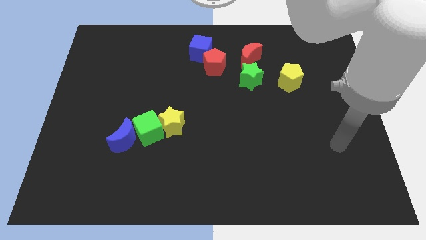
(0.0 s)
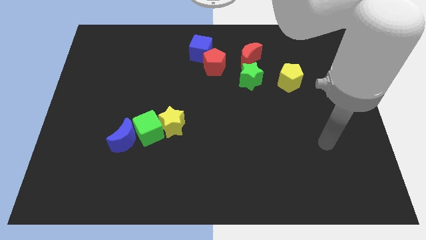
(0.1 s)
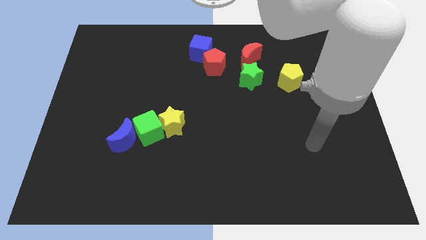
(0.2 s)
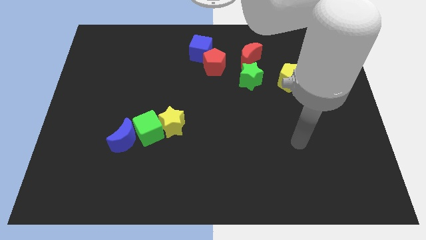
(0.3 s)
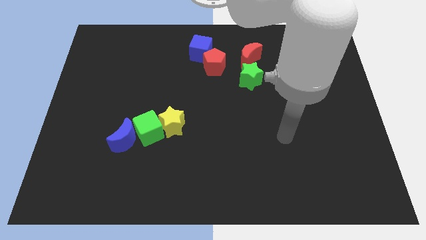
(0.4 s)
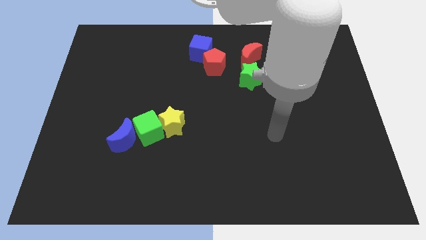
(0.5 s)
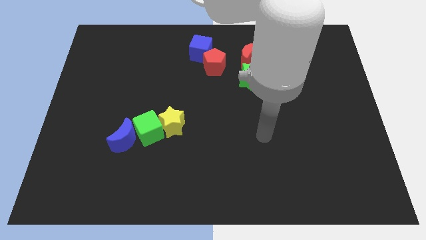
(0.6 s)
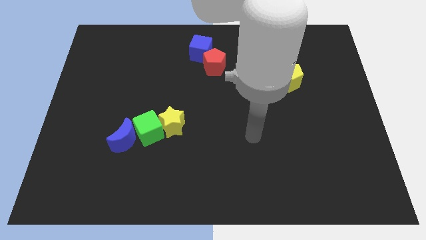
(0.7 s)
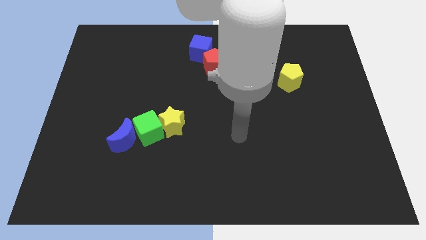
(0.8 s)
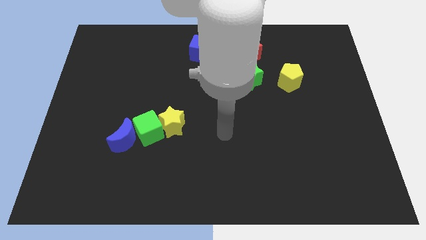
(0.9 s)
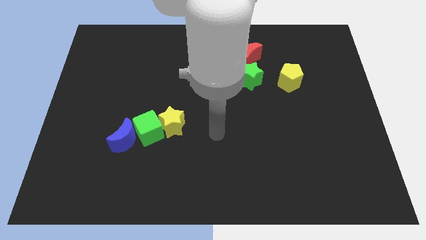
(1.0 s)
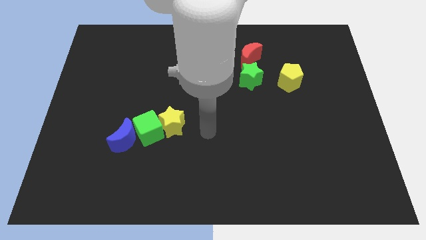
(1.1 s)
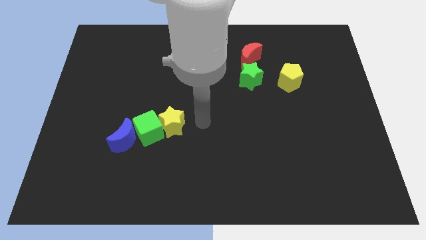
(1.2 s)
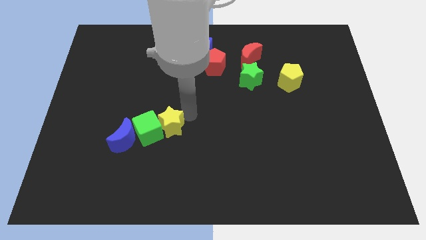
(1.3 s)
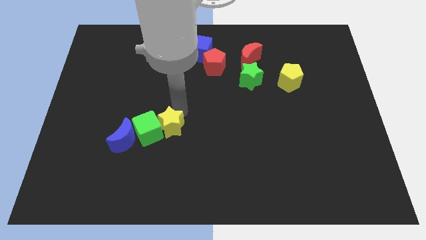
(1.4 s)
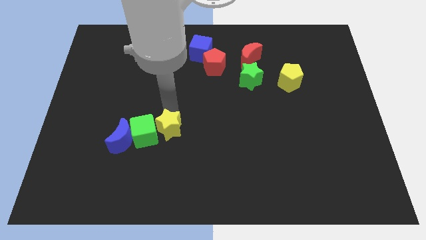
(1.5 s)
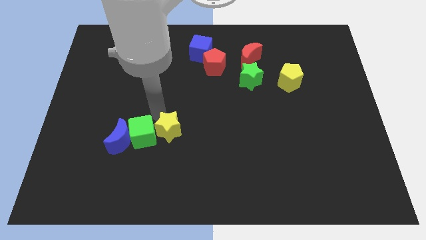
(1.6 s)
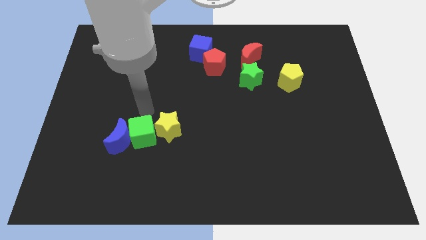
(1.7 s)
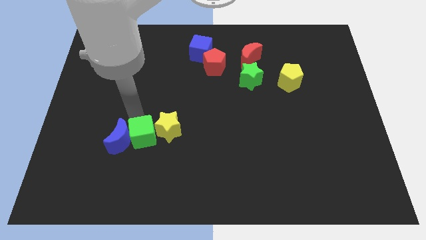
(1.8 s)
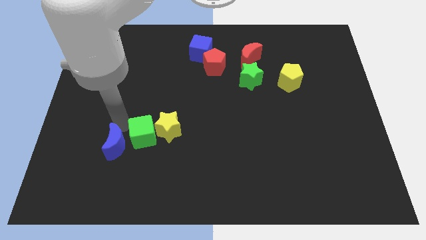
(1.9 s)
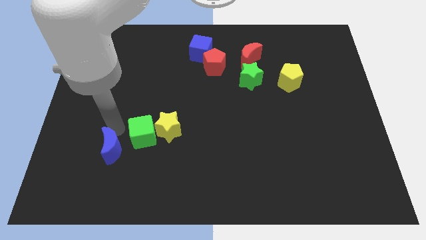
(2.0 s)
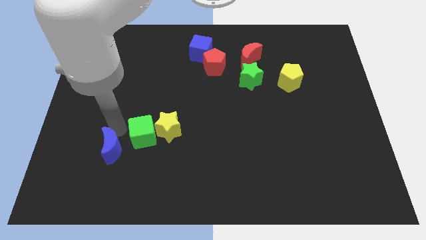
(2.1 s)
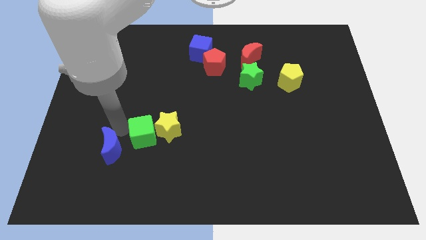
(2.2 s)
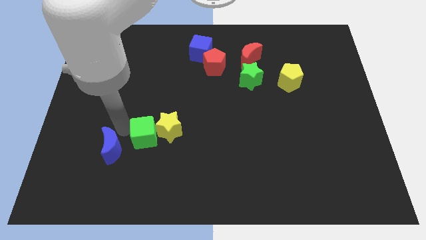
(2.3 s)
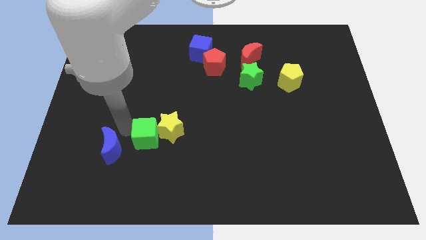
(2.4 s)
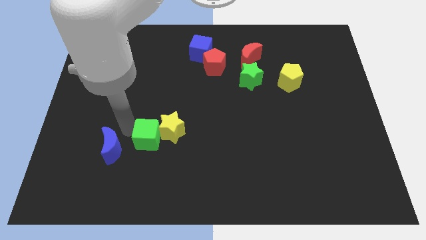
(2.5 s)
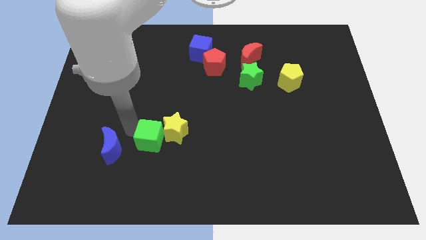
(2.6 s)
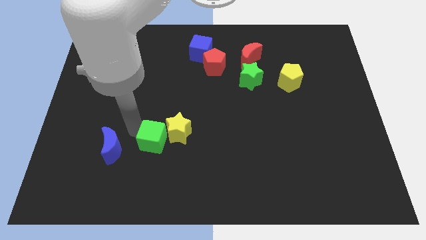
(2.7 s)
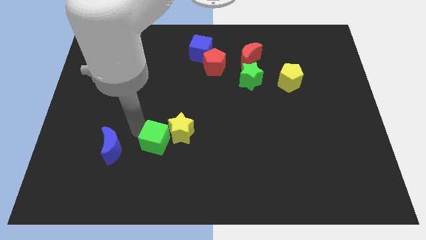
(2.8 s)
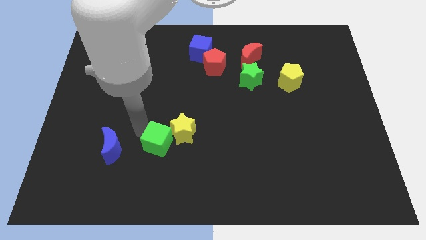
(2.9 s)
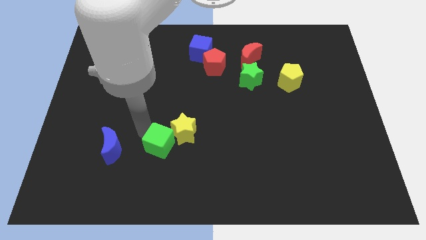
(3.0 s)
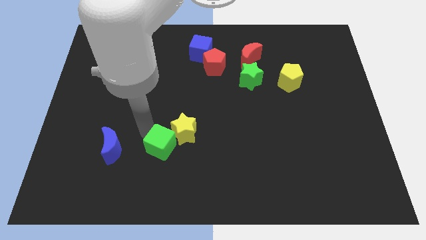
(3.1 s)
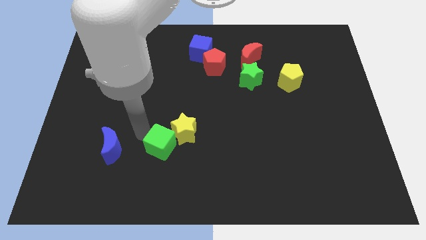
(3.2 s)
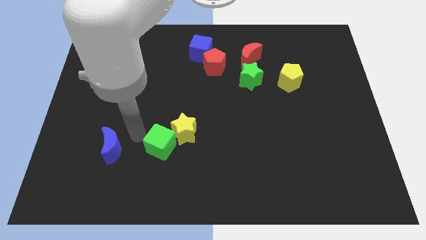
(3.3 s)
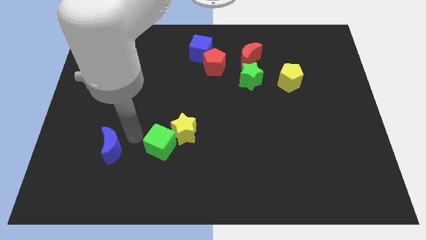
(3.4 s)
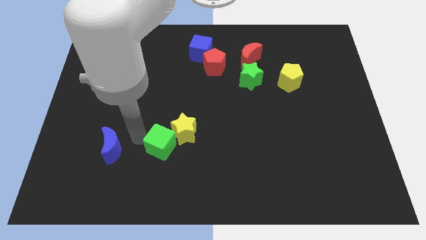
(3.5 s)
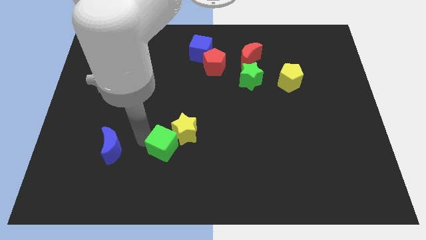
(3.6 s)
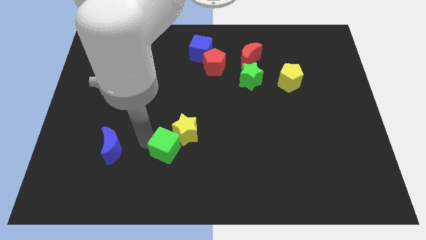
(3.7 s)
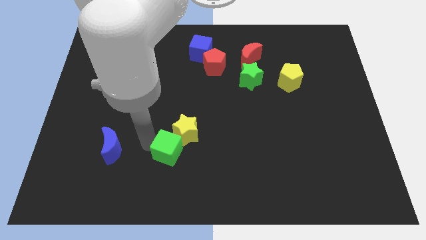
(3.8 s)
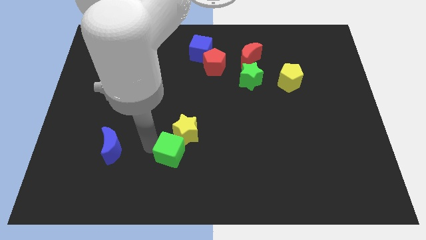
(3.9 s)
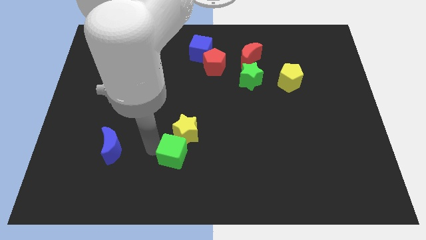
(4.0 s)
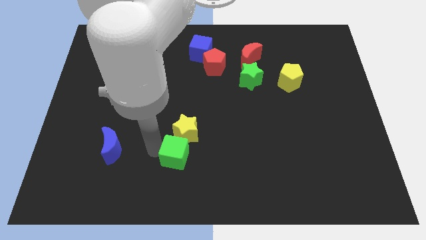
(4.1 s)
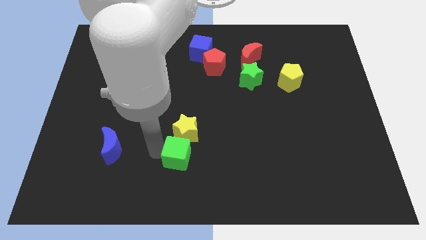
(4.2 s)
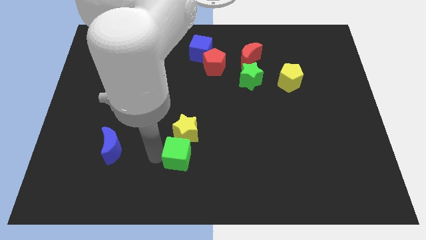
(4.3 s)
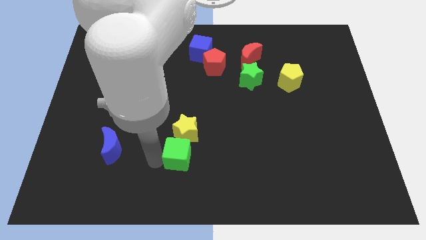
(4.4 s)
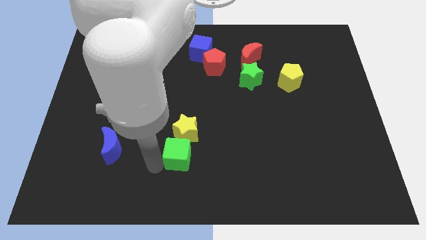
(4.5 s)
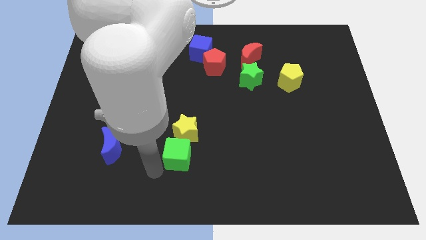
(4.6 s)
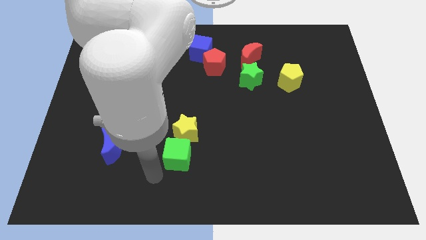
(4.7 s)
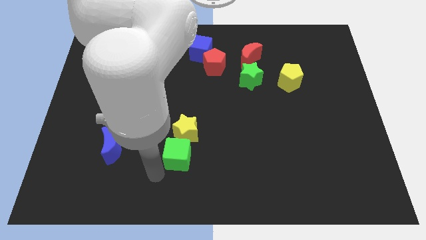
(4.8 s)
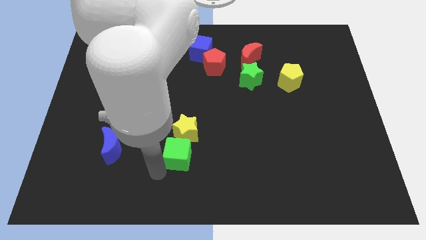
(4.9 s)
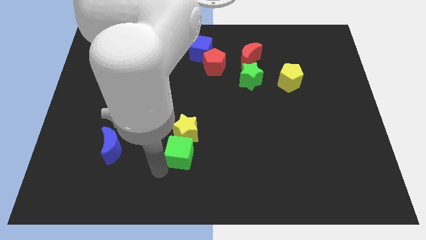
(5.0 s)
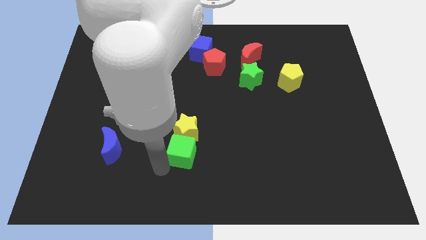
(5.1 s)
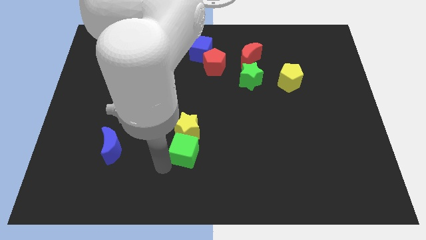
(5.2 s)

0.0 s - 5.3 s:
move the green cube a little right

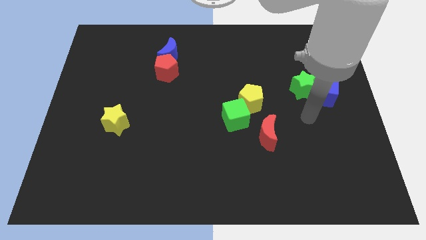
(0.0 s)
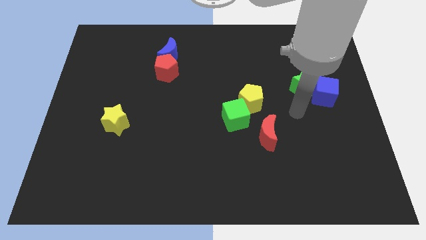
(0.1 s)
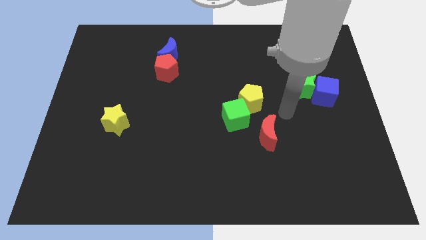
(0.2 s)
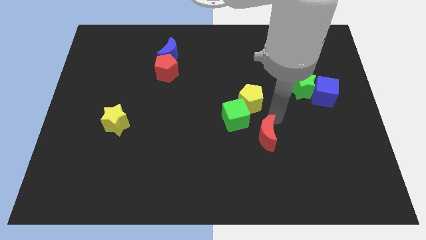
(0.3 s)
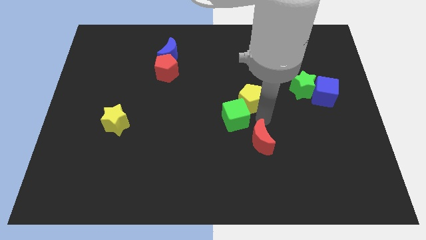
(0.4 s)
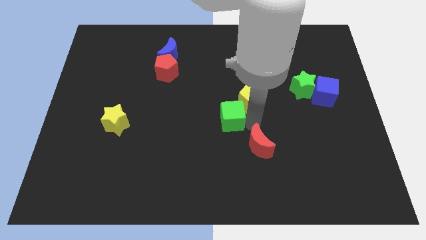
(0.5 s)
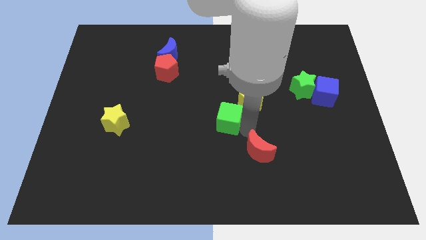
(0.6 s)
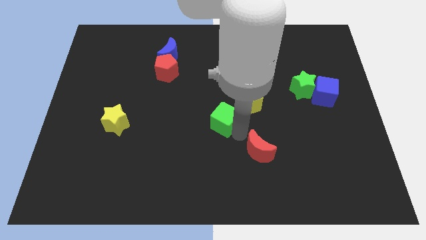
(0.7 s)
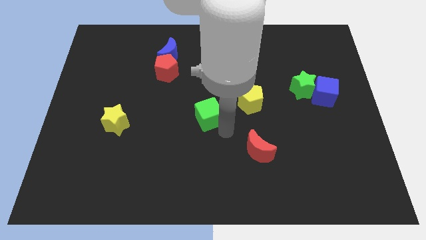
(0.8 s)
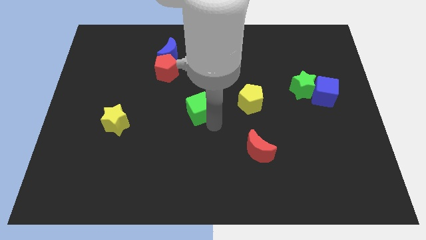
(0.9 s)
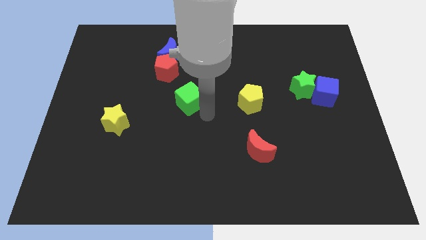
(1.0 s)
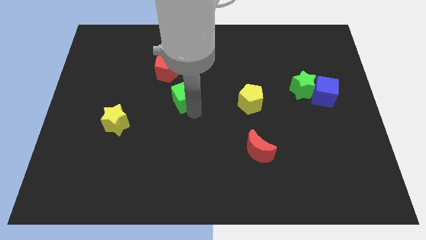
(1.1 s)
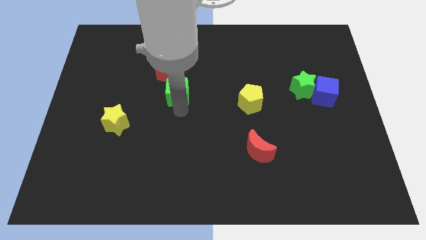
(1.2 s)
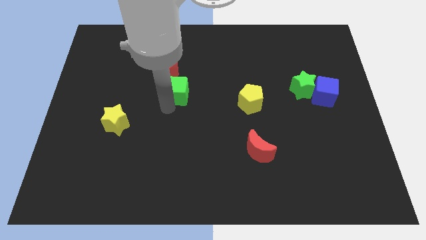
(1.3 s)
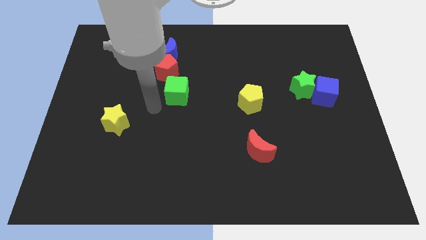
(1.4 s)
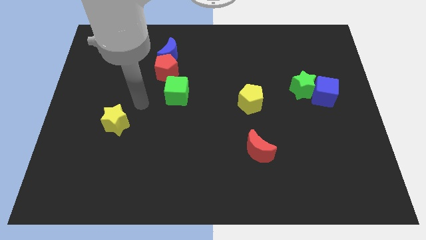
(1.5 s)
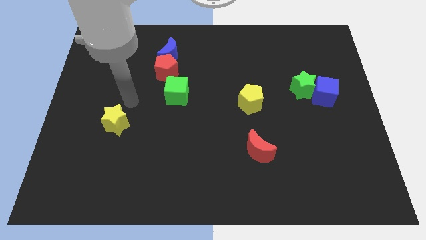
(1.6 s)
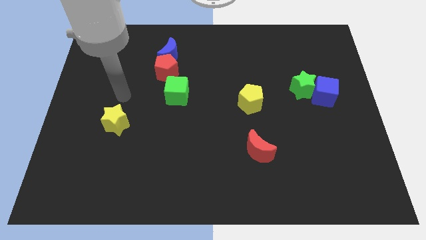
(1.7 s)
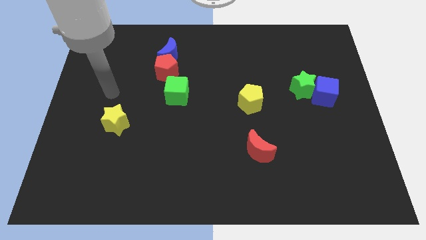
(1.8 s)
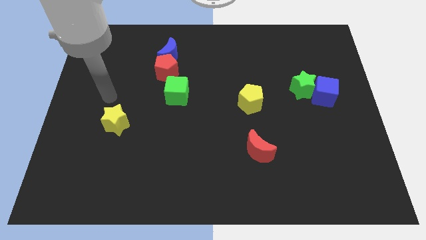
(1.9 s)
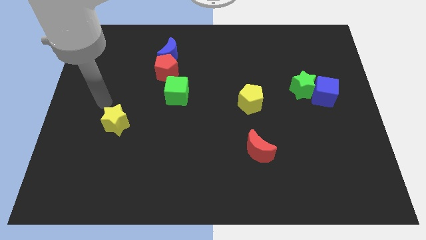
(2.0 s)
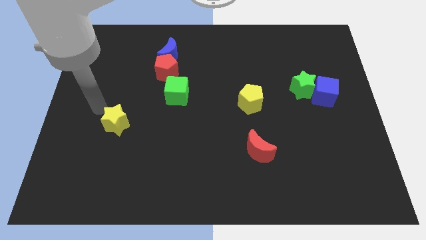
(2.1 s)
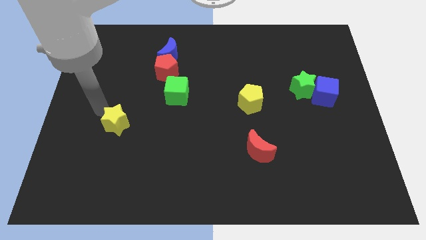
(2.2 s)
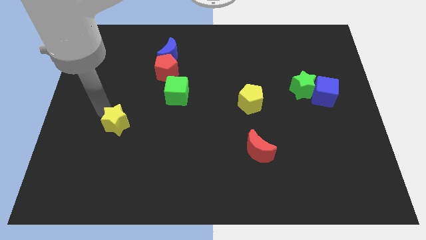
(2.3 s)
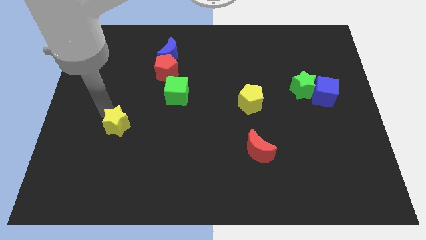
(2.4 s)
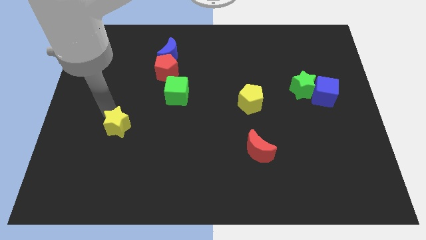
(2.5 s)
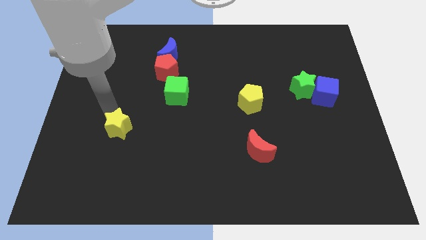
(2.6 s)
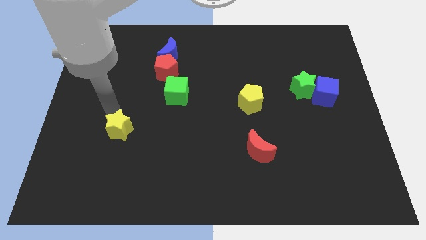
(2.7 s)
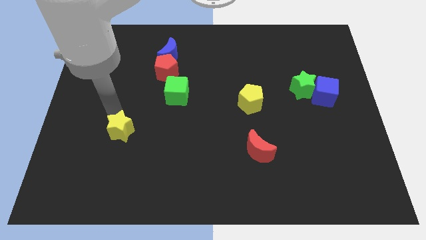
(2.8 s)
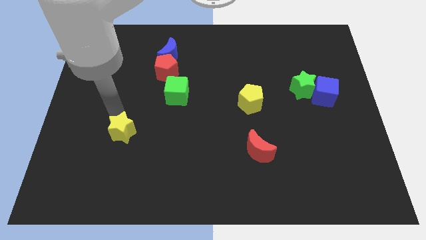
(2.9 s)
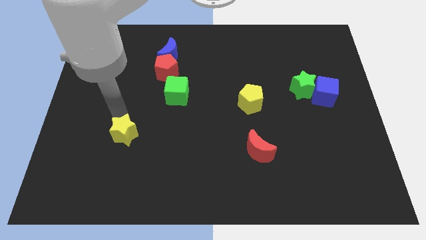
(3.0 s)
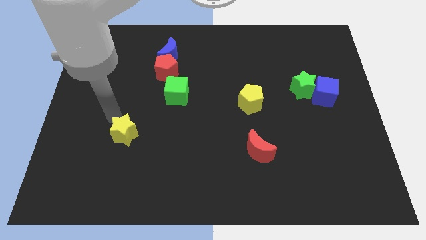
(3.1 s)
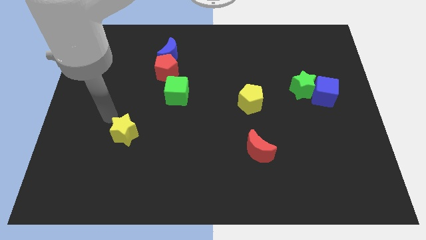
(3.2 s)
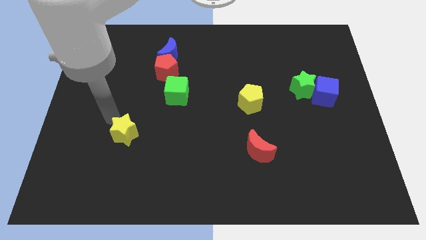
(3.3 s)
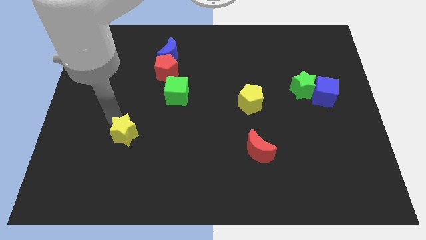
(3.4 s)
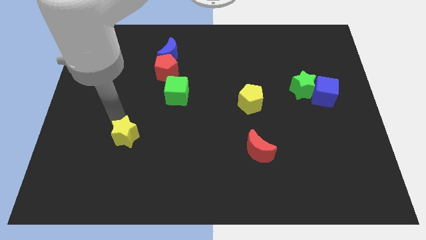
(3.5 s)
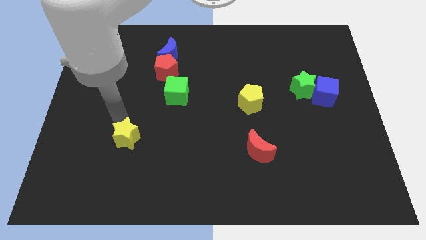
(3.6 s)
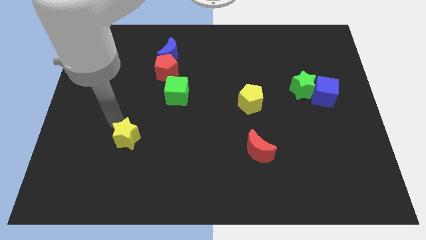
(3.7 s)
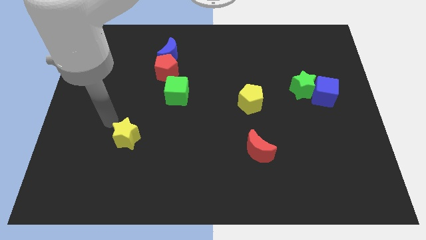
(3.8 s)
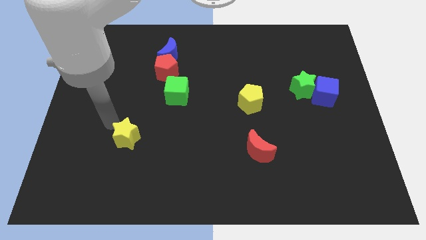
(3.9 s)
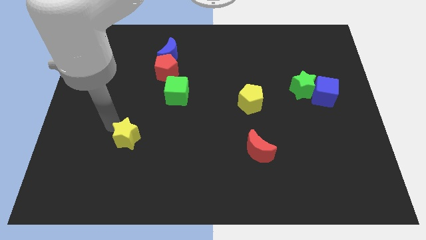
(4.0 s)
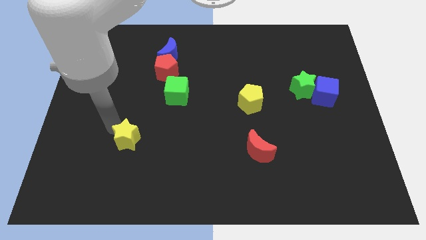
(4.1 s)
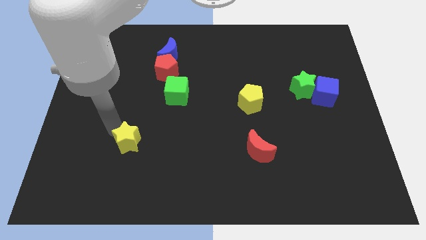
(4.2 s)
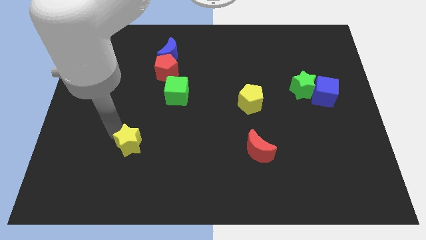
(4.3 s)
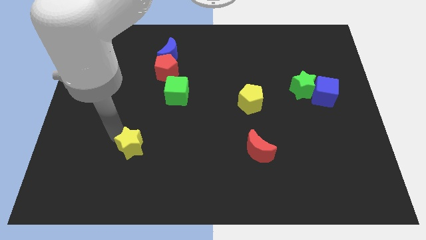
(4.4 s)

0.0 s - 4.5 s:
push the yellow star diagonally downwards and to the right slightly
